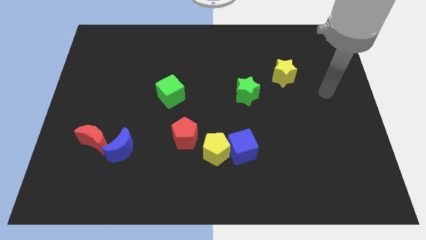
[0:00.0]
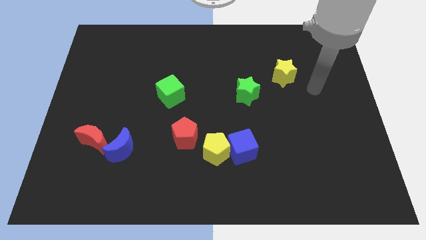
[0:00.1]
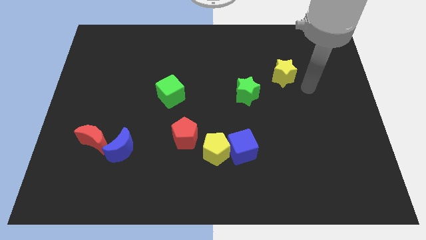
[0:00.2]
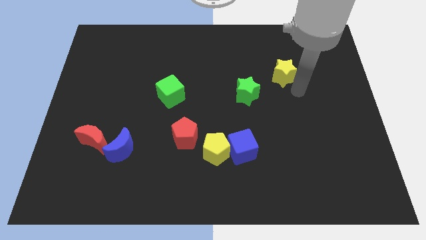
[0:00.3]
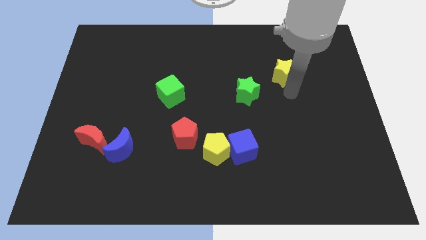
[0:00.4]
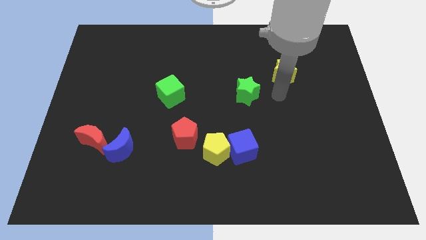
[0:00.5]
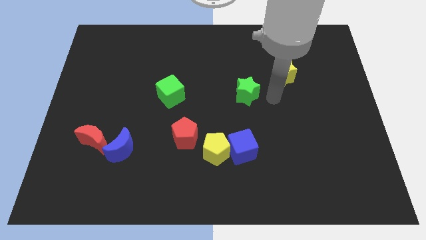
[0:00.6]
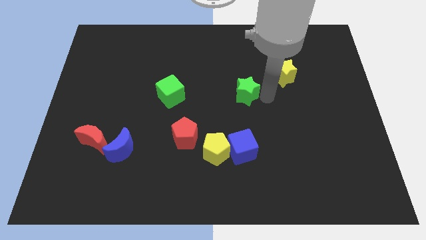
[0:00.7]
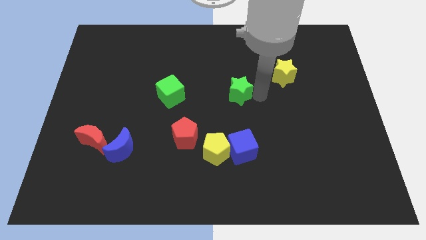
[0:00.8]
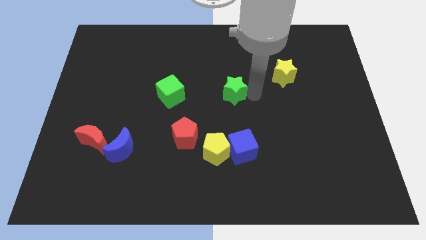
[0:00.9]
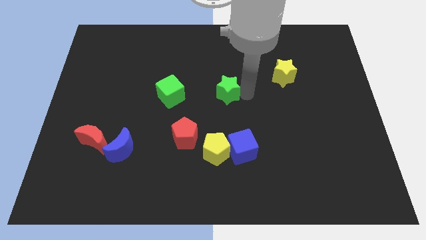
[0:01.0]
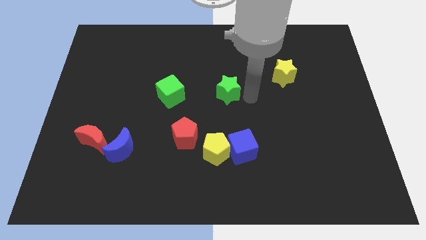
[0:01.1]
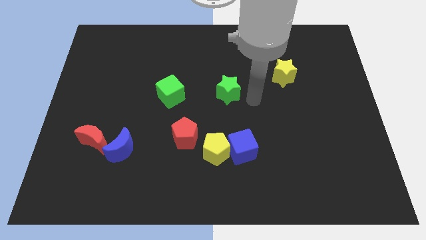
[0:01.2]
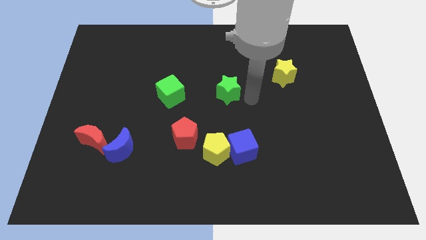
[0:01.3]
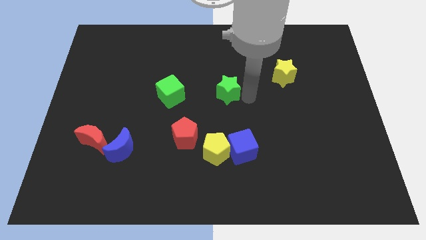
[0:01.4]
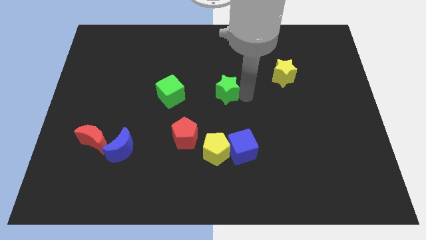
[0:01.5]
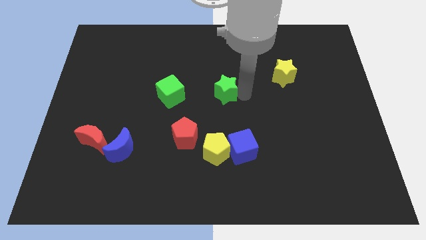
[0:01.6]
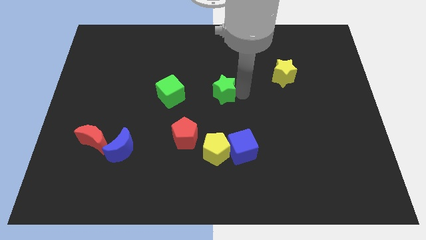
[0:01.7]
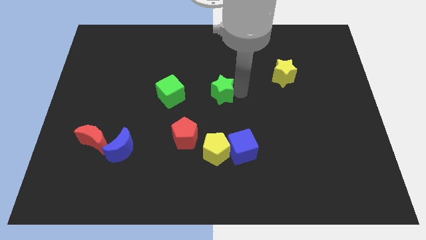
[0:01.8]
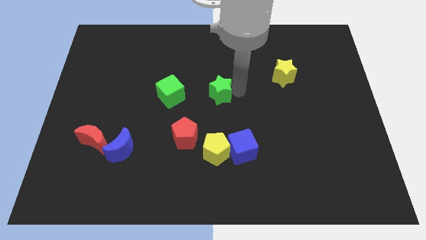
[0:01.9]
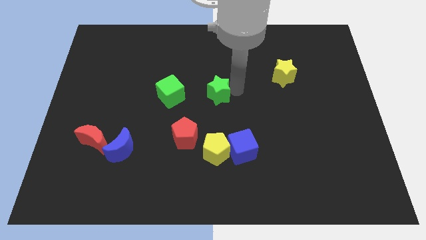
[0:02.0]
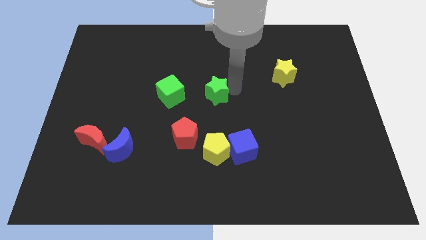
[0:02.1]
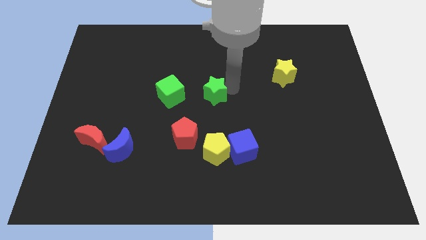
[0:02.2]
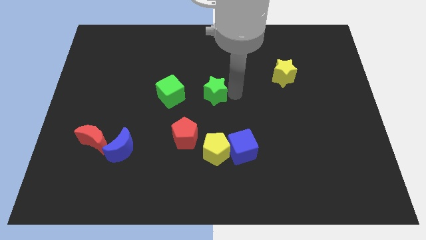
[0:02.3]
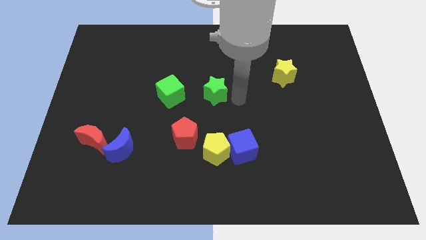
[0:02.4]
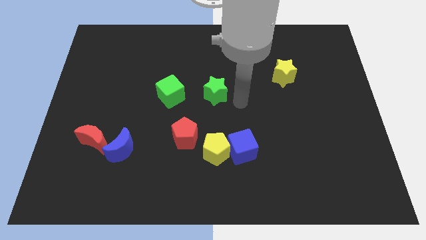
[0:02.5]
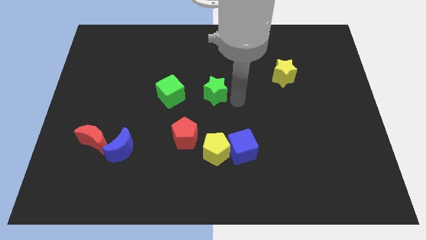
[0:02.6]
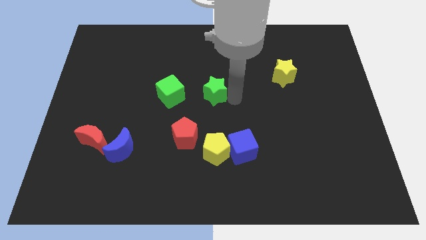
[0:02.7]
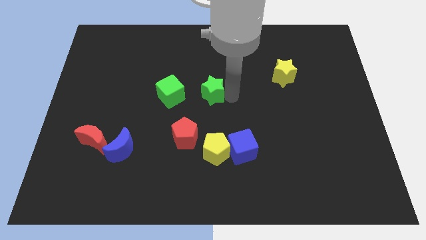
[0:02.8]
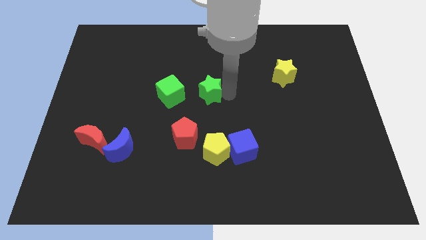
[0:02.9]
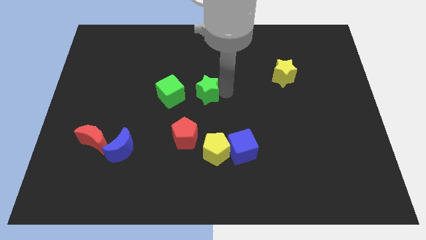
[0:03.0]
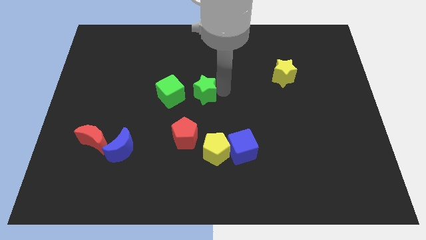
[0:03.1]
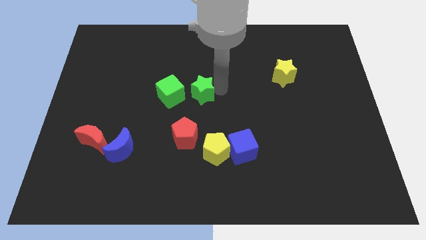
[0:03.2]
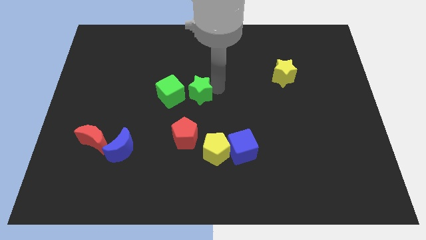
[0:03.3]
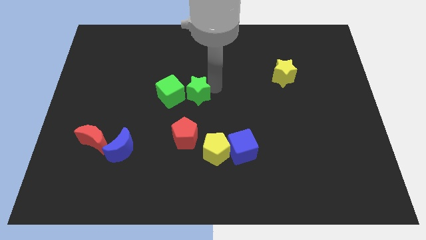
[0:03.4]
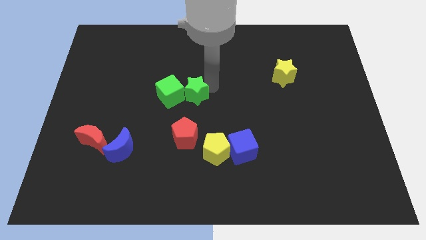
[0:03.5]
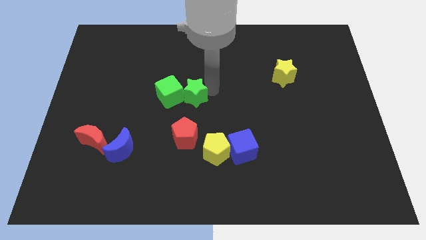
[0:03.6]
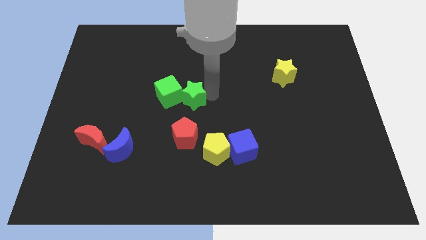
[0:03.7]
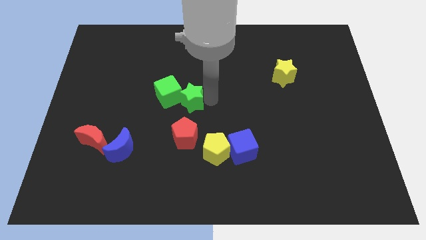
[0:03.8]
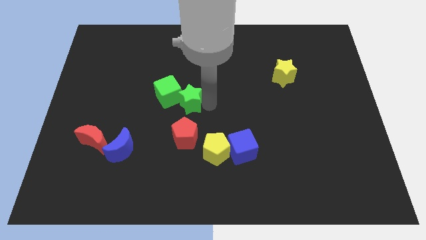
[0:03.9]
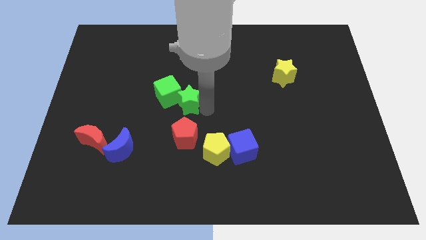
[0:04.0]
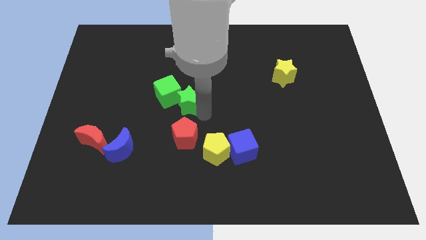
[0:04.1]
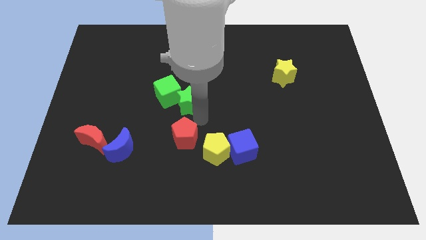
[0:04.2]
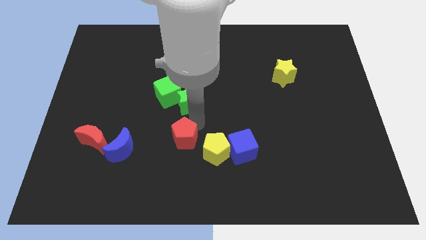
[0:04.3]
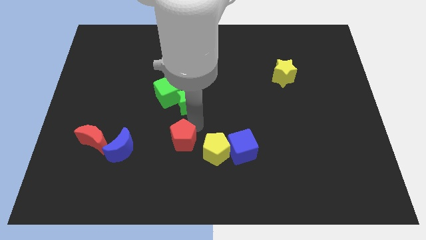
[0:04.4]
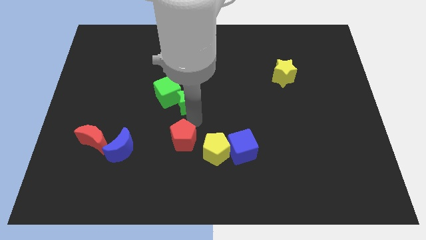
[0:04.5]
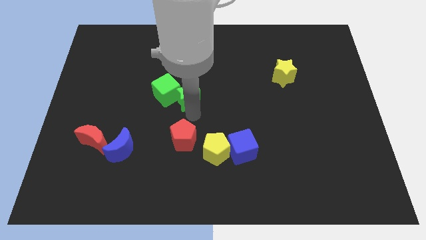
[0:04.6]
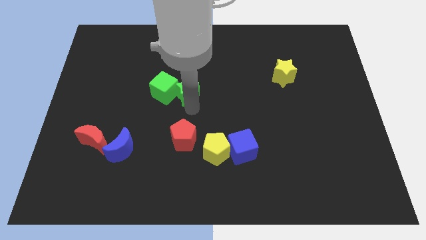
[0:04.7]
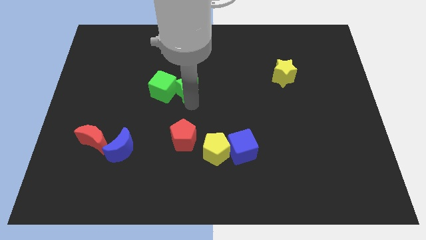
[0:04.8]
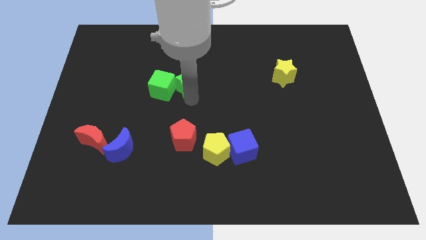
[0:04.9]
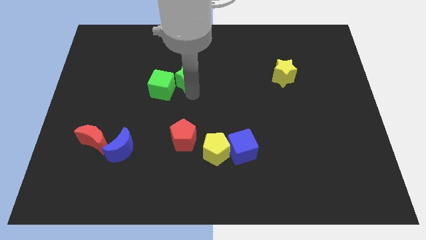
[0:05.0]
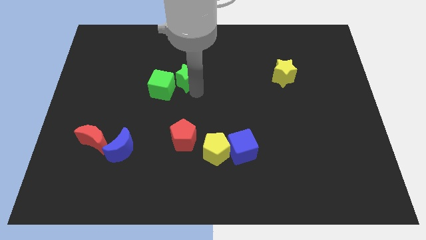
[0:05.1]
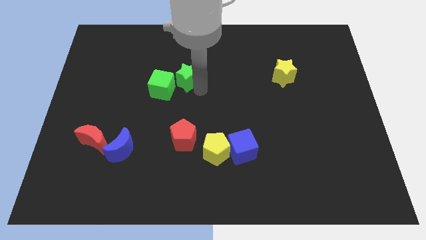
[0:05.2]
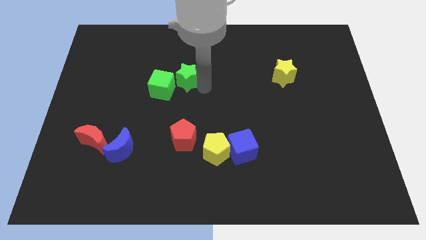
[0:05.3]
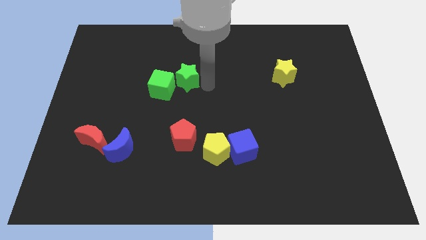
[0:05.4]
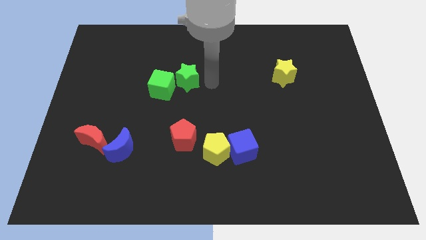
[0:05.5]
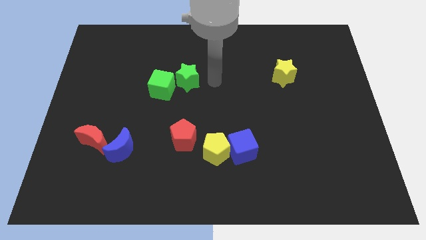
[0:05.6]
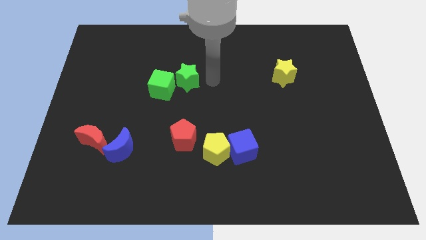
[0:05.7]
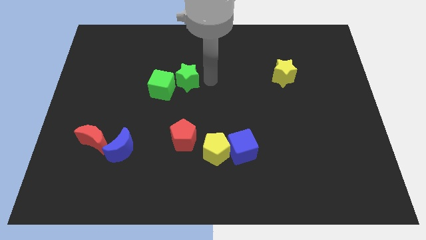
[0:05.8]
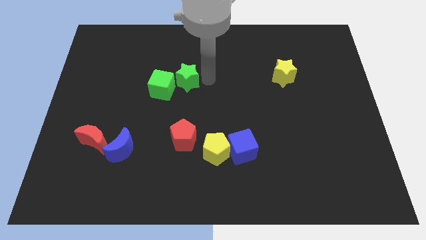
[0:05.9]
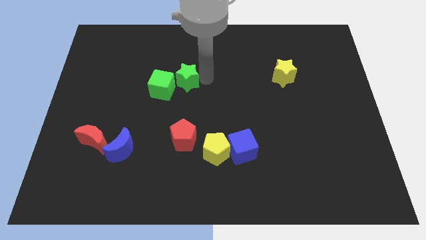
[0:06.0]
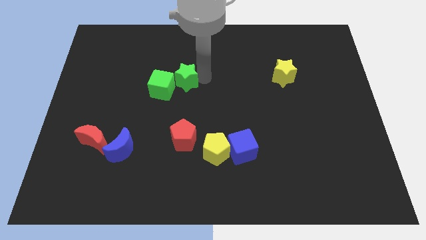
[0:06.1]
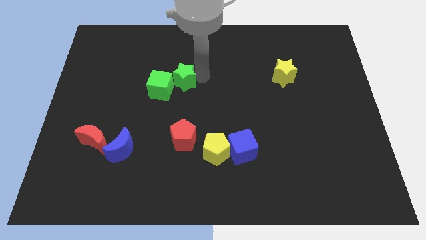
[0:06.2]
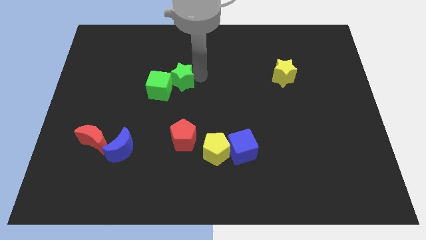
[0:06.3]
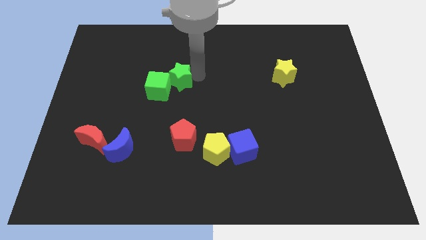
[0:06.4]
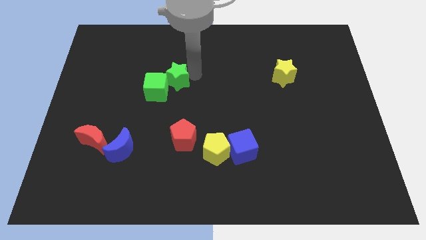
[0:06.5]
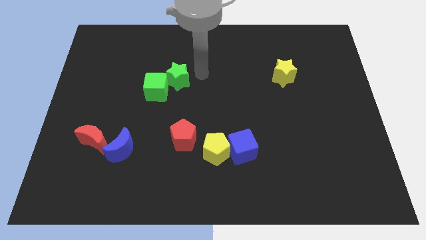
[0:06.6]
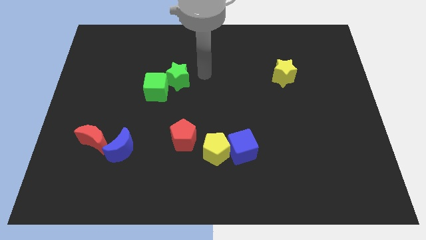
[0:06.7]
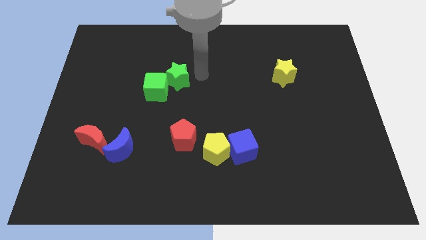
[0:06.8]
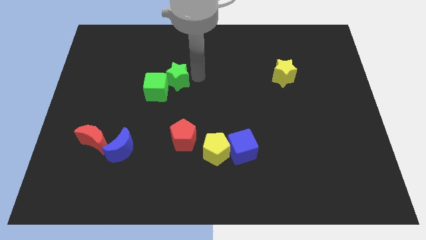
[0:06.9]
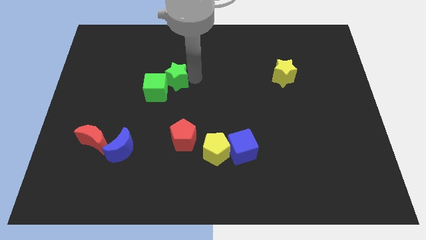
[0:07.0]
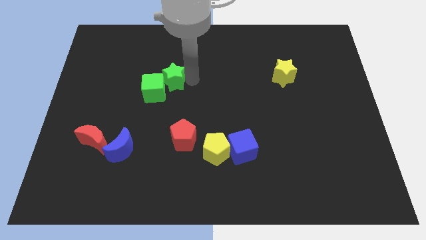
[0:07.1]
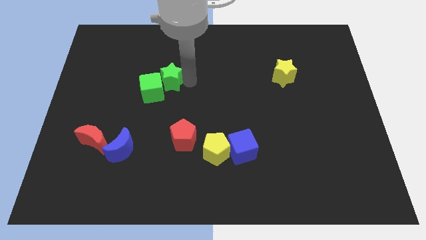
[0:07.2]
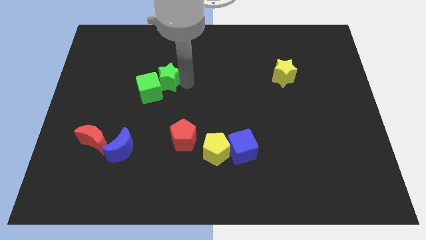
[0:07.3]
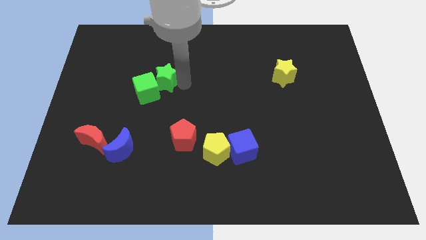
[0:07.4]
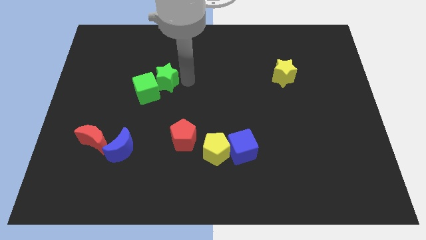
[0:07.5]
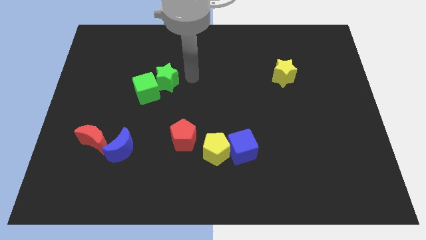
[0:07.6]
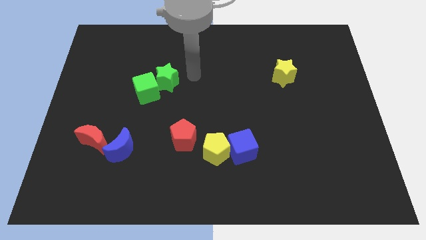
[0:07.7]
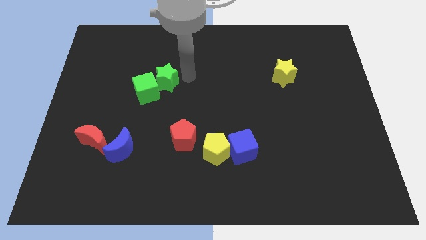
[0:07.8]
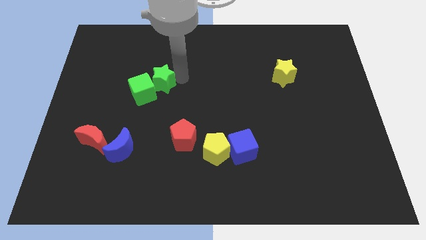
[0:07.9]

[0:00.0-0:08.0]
slide the green star left
